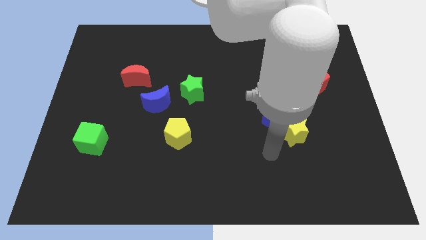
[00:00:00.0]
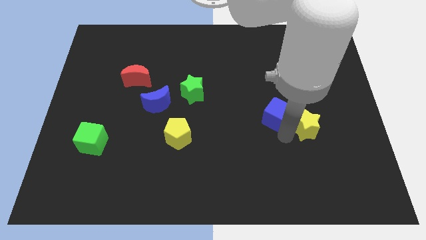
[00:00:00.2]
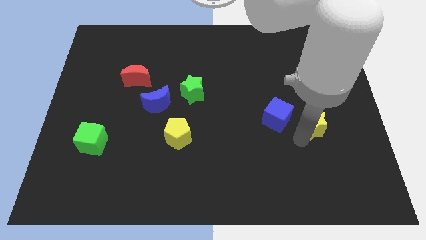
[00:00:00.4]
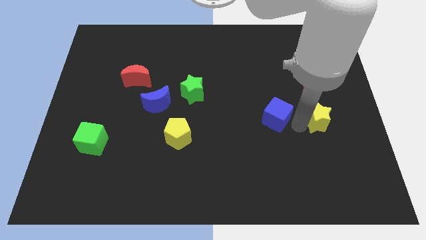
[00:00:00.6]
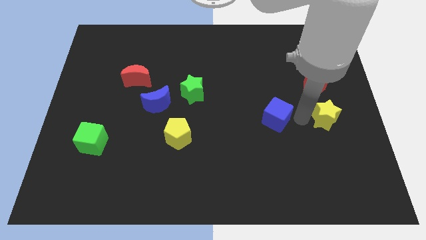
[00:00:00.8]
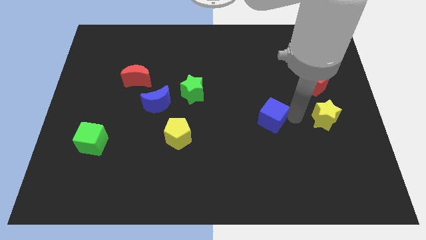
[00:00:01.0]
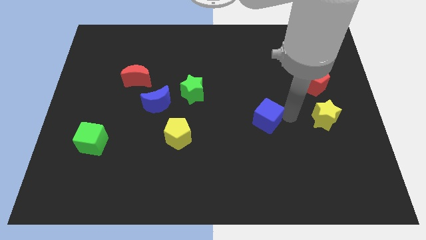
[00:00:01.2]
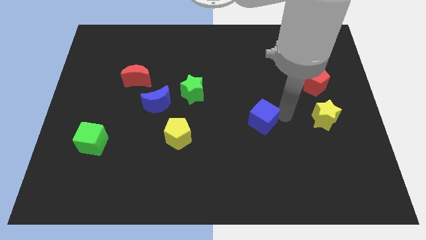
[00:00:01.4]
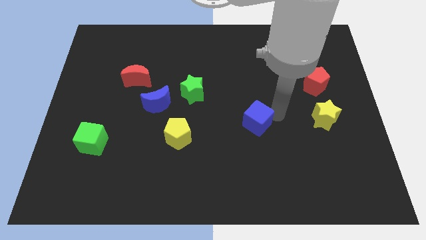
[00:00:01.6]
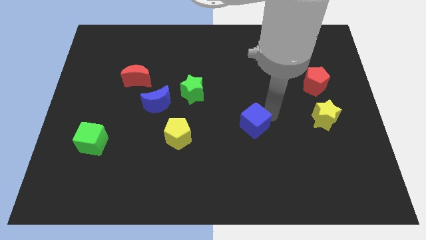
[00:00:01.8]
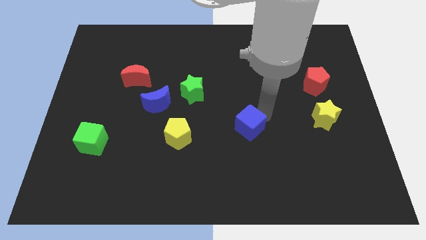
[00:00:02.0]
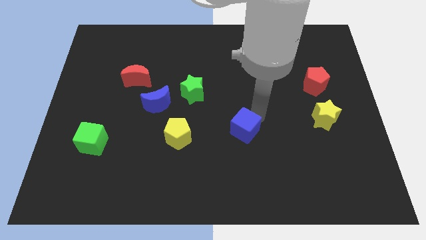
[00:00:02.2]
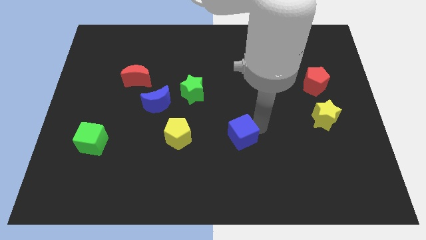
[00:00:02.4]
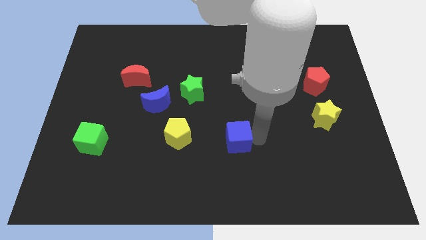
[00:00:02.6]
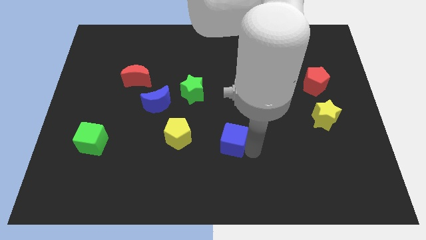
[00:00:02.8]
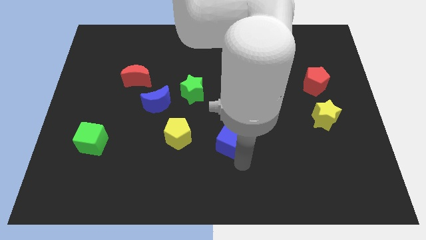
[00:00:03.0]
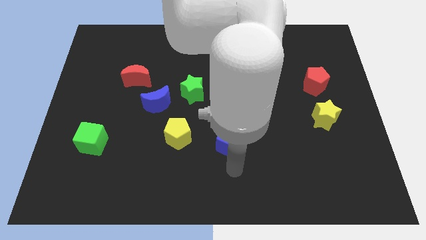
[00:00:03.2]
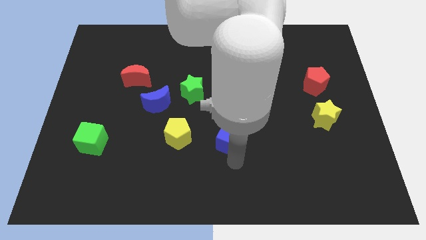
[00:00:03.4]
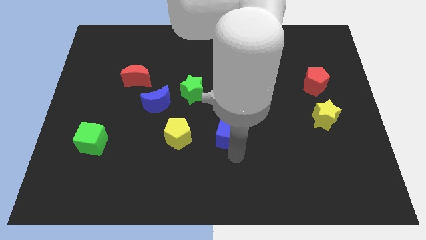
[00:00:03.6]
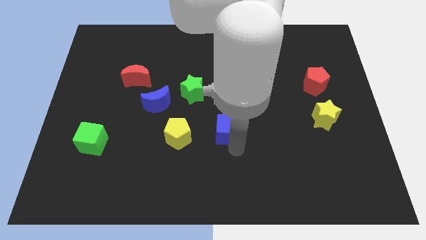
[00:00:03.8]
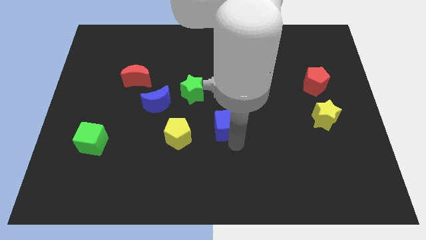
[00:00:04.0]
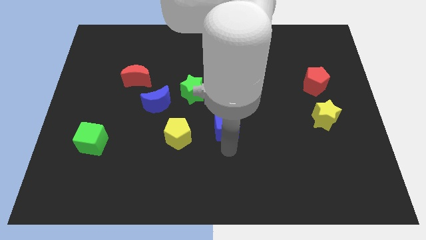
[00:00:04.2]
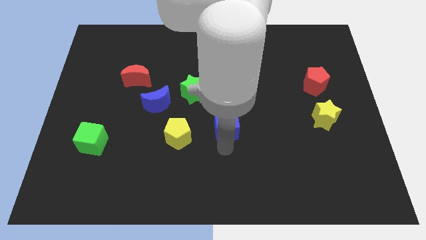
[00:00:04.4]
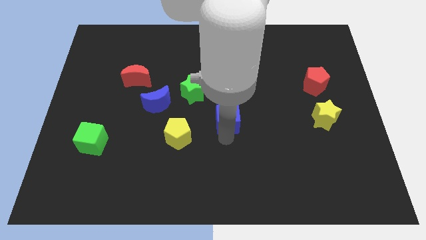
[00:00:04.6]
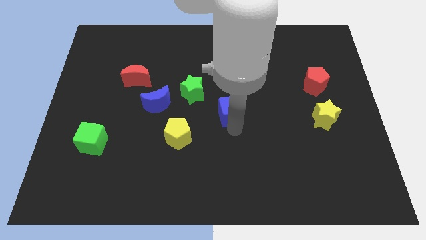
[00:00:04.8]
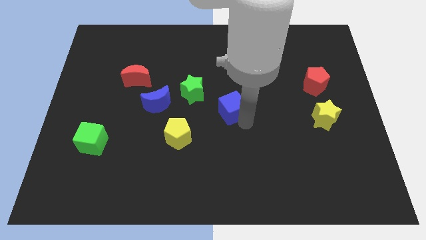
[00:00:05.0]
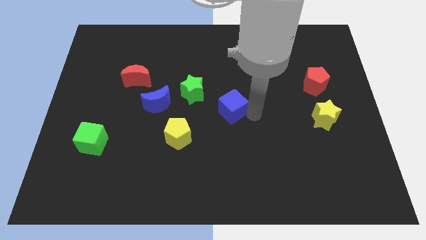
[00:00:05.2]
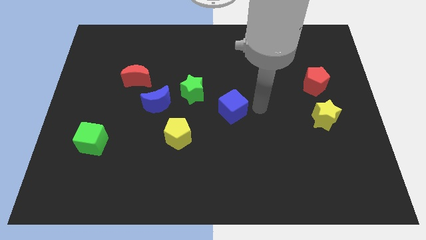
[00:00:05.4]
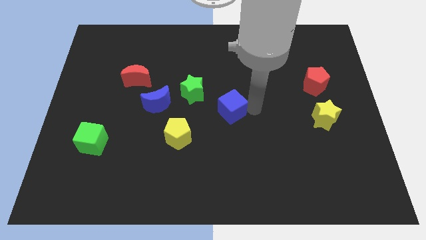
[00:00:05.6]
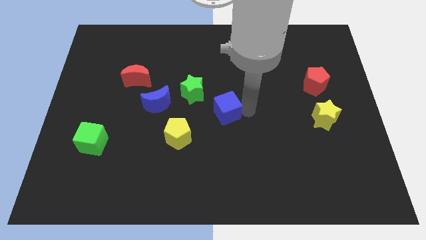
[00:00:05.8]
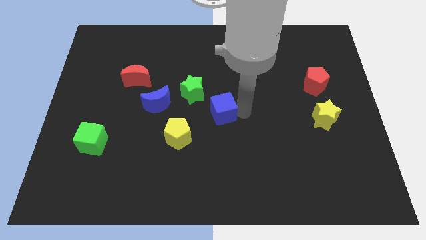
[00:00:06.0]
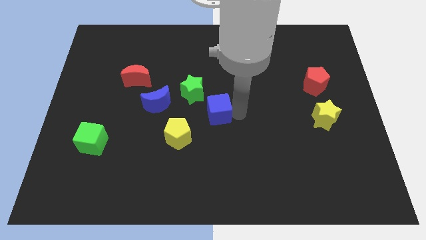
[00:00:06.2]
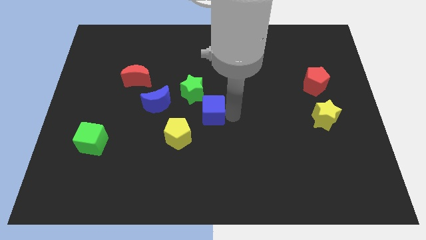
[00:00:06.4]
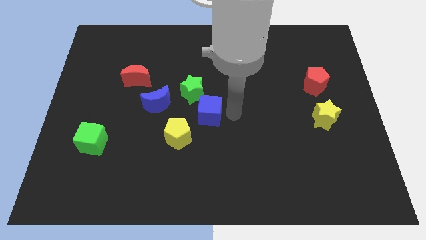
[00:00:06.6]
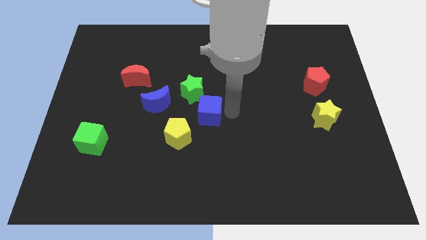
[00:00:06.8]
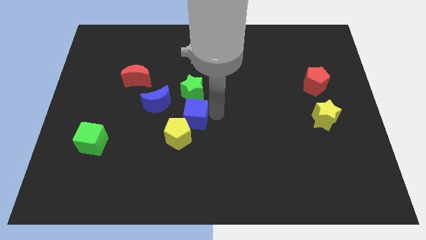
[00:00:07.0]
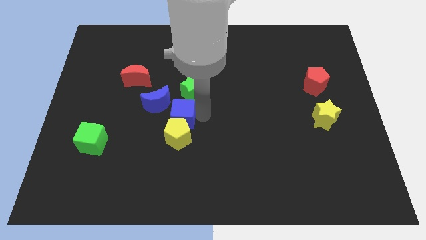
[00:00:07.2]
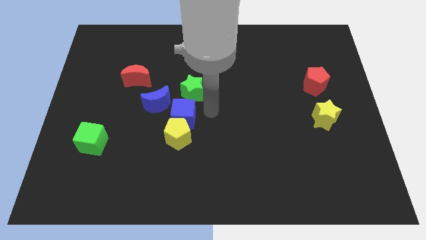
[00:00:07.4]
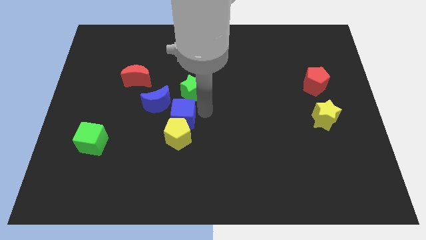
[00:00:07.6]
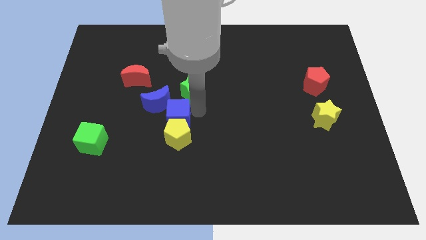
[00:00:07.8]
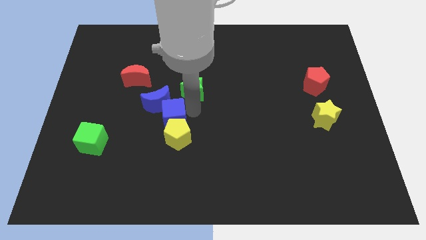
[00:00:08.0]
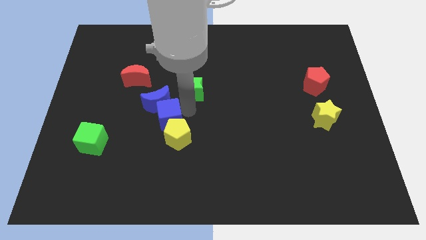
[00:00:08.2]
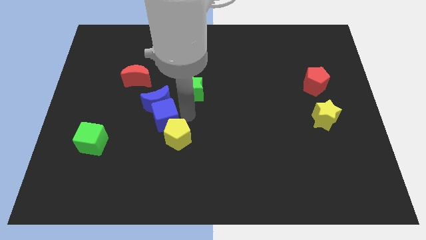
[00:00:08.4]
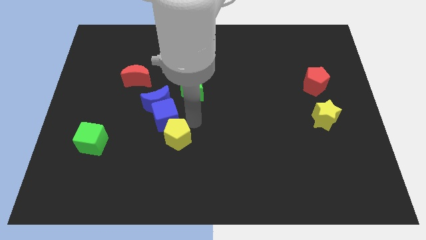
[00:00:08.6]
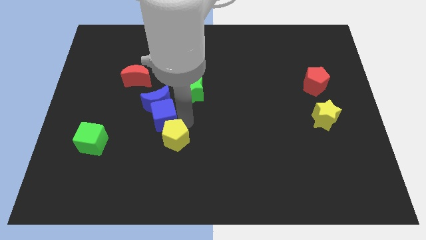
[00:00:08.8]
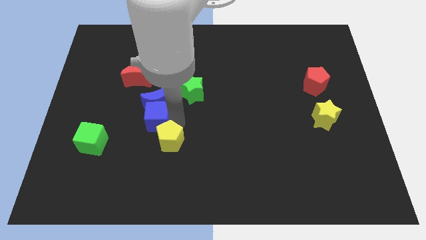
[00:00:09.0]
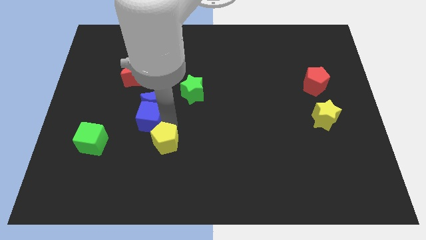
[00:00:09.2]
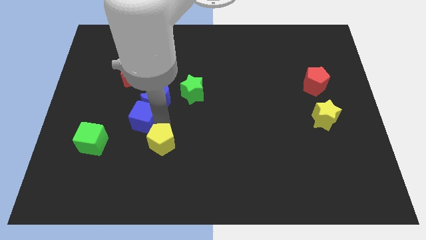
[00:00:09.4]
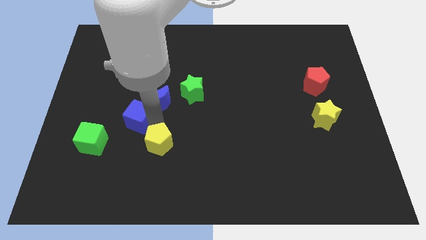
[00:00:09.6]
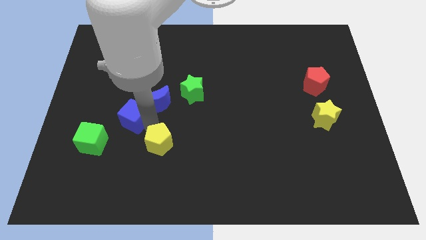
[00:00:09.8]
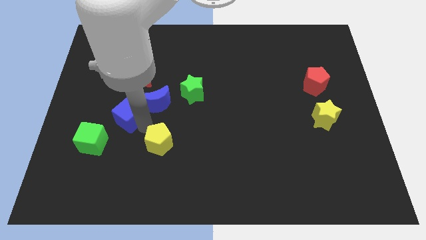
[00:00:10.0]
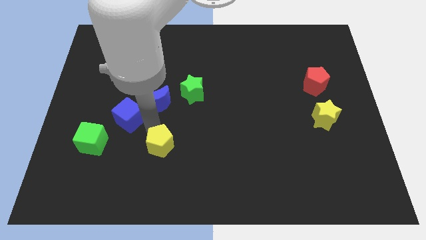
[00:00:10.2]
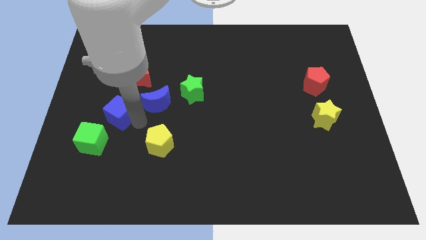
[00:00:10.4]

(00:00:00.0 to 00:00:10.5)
put the blue cube above the green cube

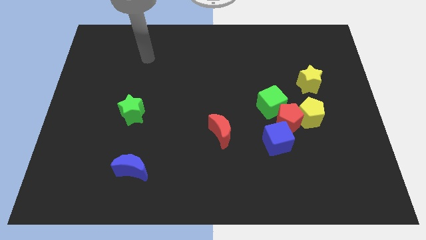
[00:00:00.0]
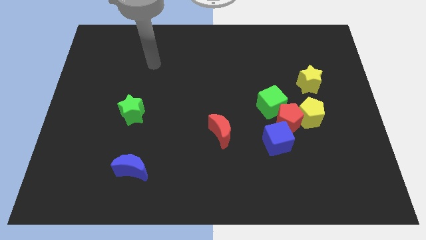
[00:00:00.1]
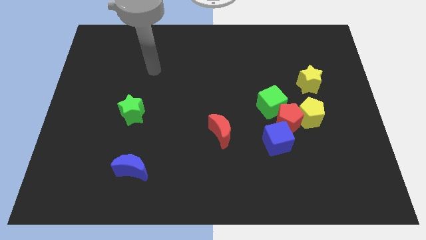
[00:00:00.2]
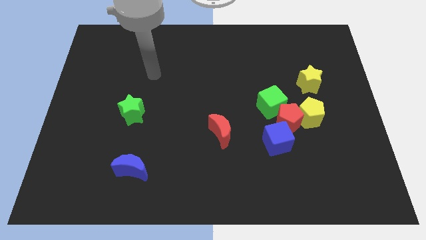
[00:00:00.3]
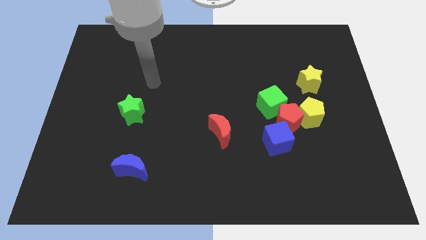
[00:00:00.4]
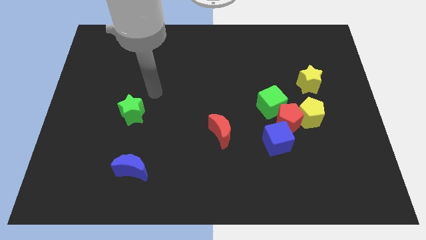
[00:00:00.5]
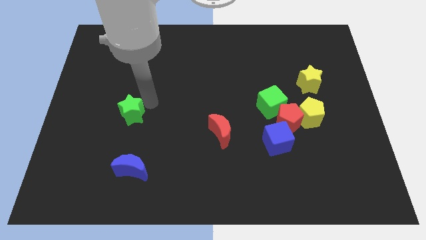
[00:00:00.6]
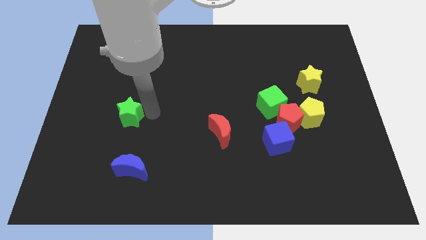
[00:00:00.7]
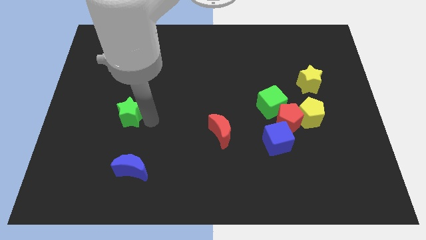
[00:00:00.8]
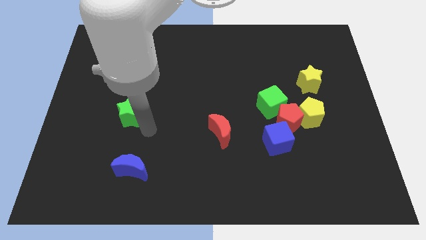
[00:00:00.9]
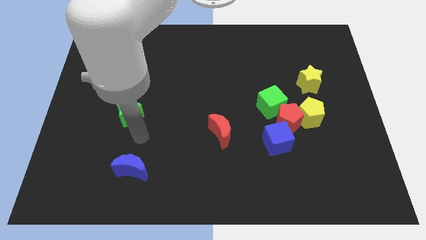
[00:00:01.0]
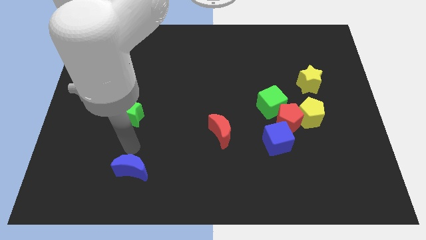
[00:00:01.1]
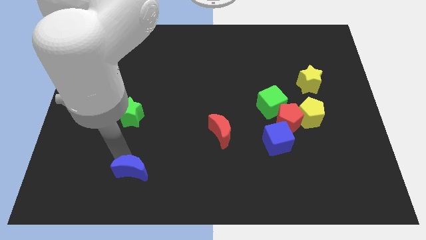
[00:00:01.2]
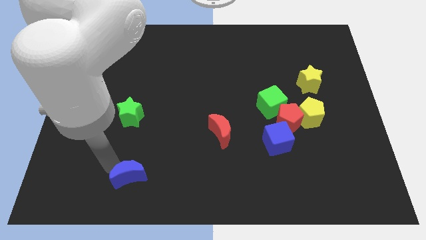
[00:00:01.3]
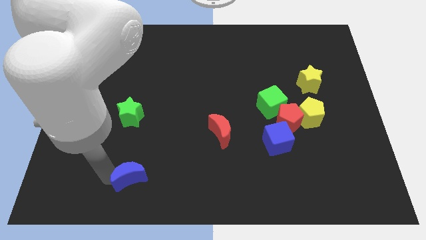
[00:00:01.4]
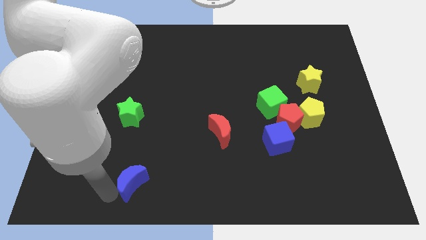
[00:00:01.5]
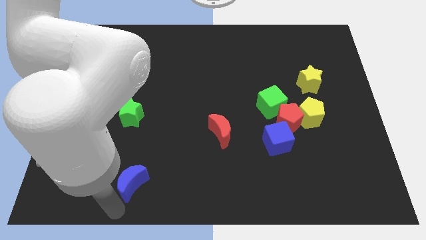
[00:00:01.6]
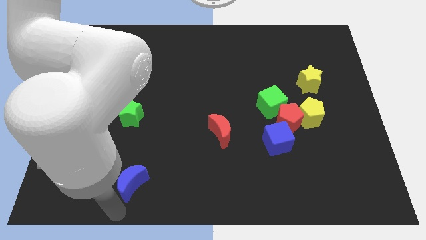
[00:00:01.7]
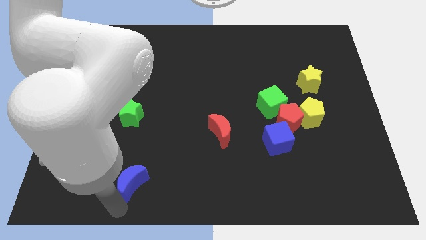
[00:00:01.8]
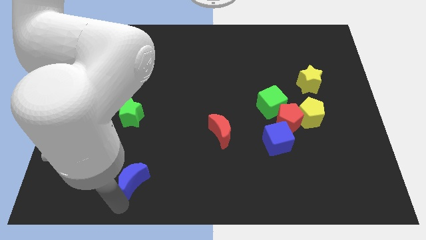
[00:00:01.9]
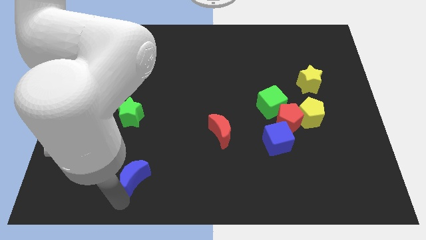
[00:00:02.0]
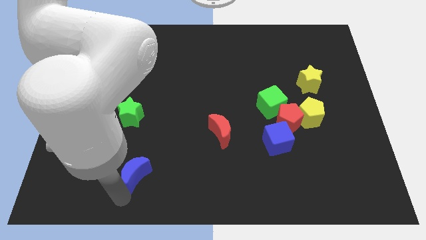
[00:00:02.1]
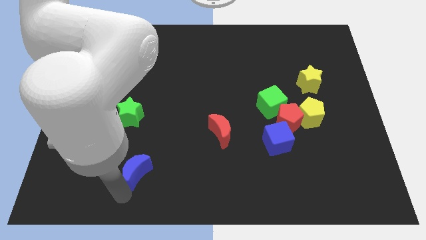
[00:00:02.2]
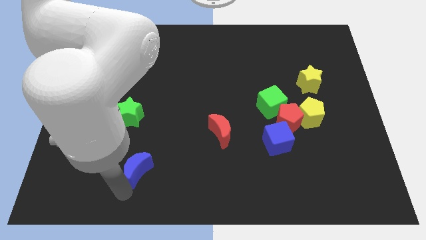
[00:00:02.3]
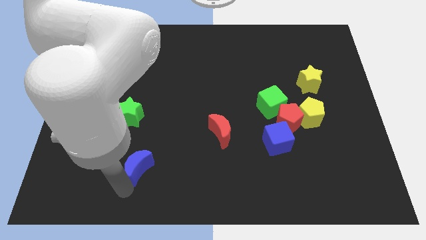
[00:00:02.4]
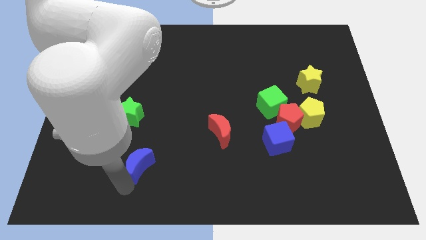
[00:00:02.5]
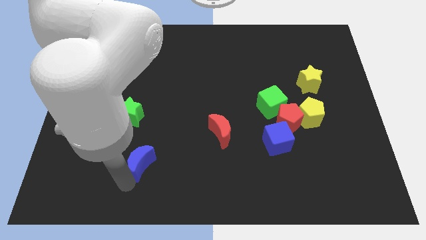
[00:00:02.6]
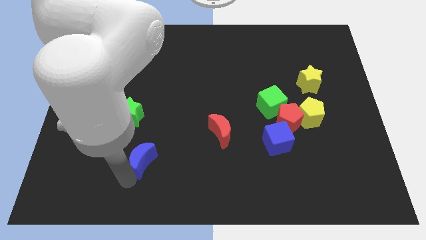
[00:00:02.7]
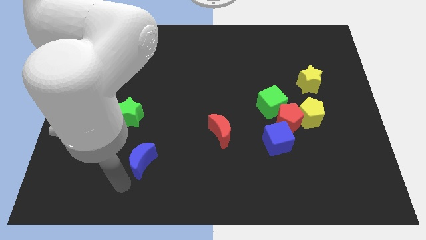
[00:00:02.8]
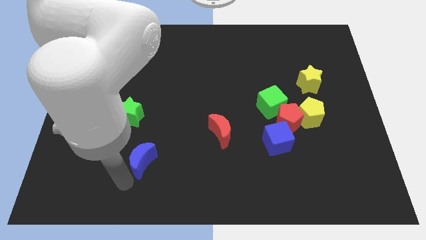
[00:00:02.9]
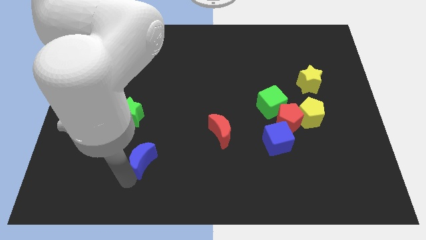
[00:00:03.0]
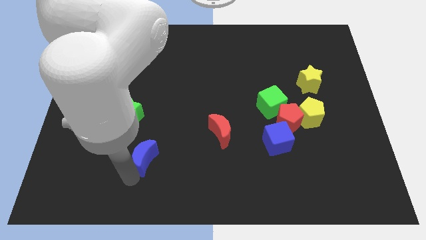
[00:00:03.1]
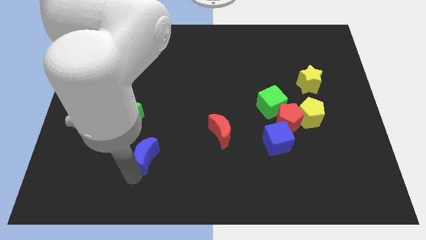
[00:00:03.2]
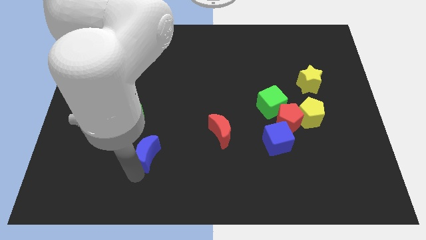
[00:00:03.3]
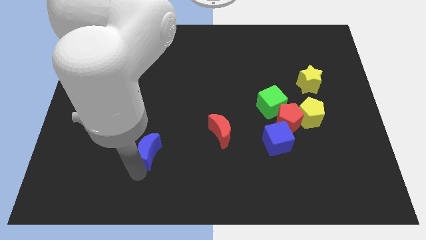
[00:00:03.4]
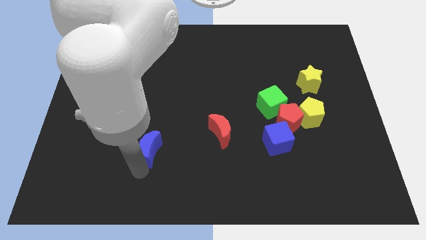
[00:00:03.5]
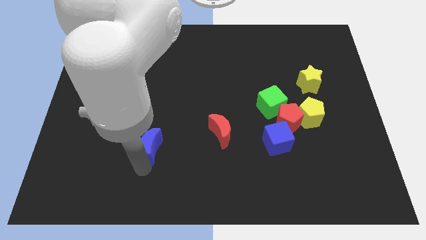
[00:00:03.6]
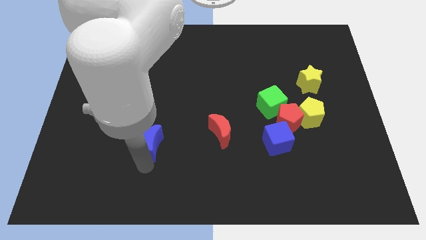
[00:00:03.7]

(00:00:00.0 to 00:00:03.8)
slide the blue moon just left of the red moon
